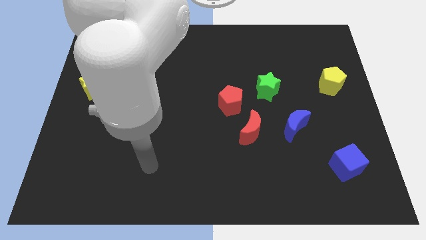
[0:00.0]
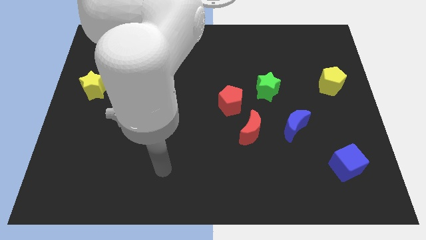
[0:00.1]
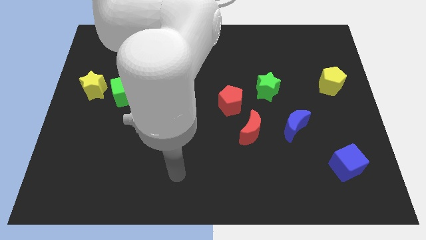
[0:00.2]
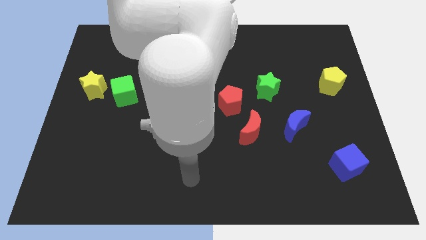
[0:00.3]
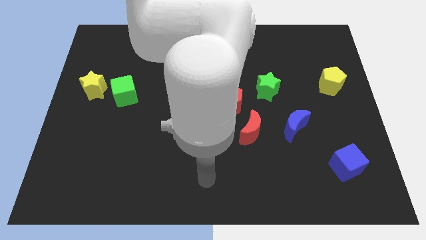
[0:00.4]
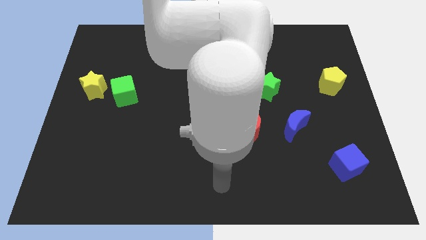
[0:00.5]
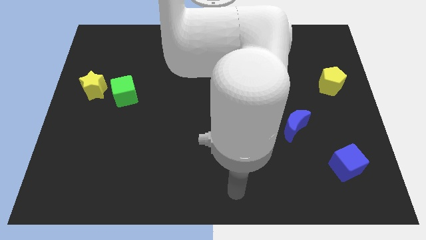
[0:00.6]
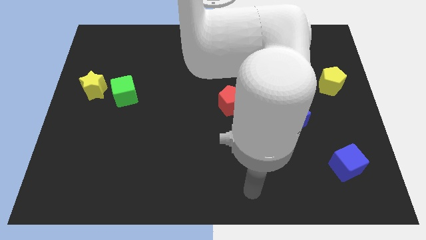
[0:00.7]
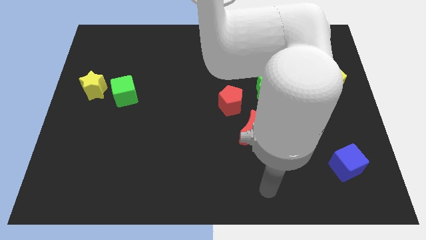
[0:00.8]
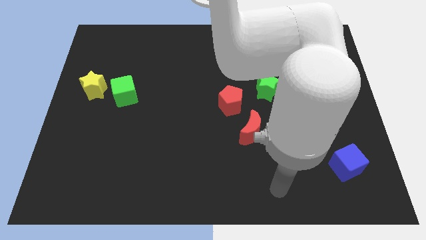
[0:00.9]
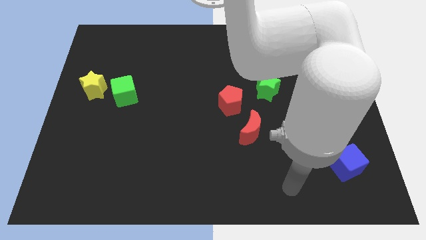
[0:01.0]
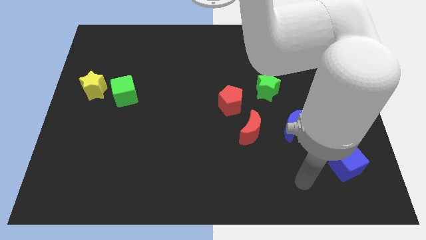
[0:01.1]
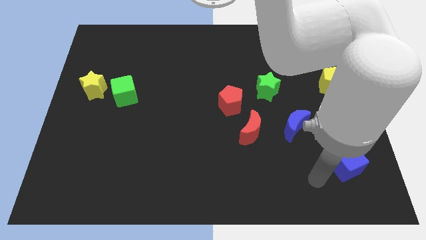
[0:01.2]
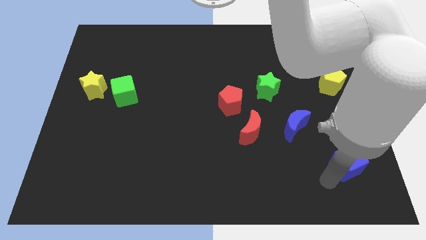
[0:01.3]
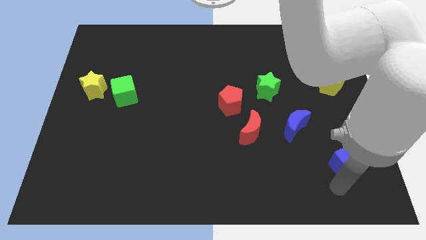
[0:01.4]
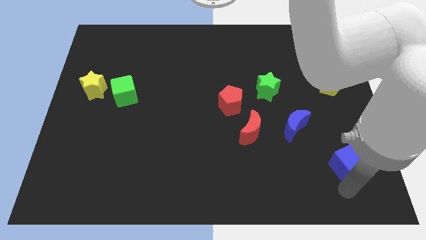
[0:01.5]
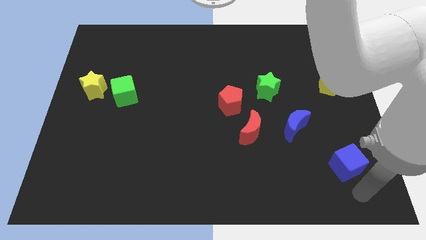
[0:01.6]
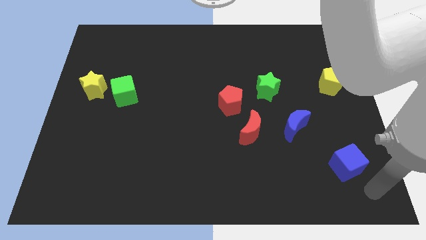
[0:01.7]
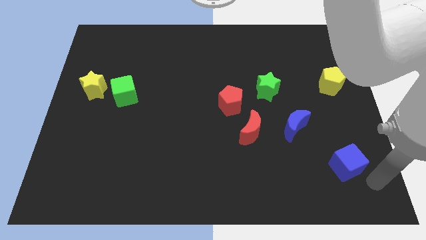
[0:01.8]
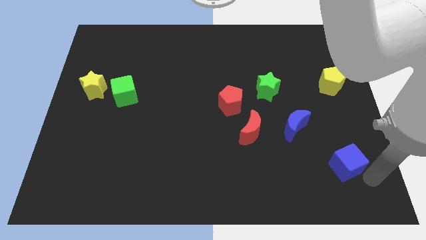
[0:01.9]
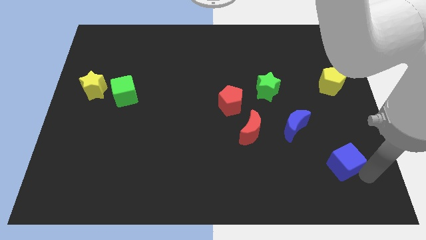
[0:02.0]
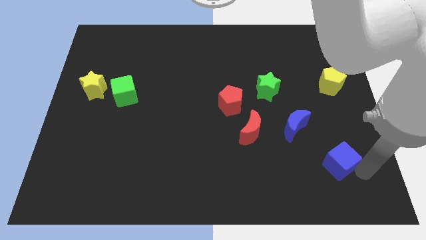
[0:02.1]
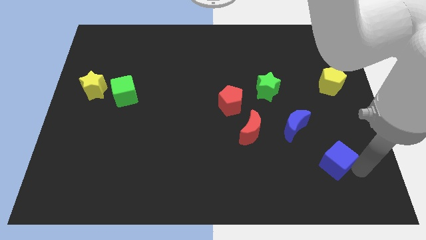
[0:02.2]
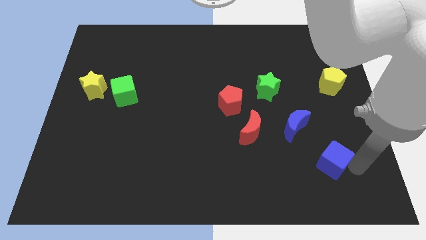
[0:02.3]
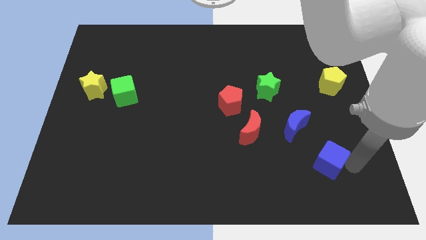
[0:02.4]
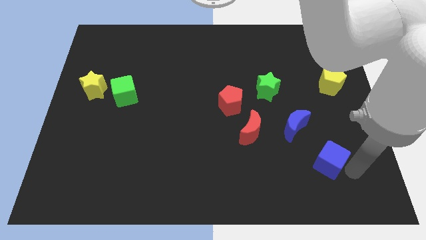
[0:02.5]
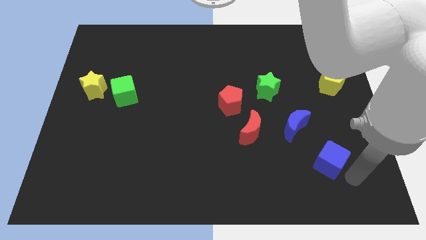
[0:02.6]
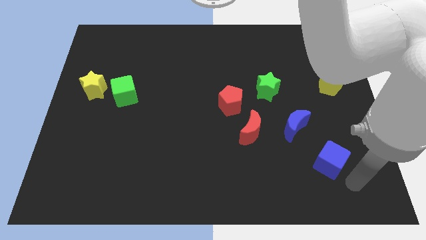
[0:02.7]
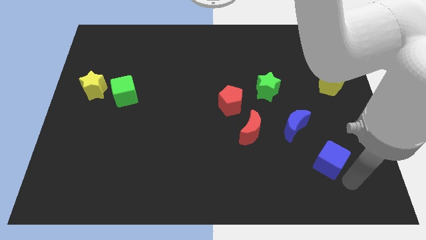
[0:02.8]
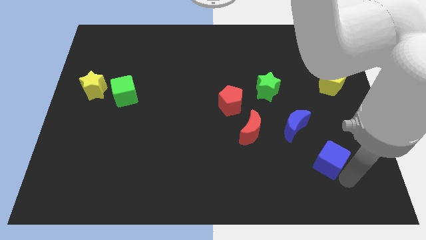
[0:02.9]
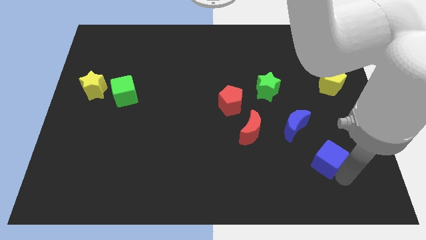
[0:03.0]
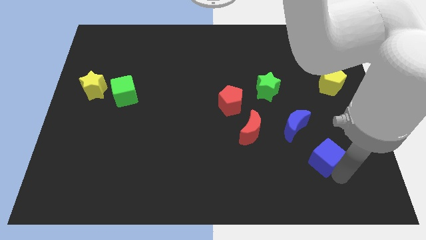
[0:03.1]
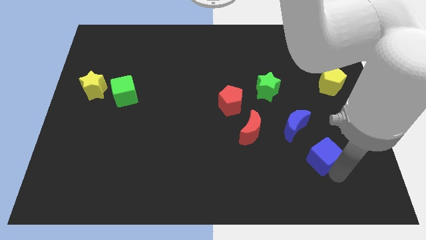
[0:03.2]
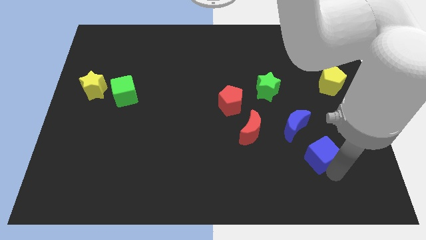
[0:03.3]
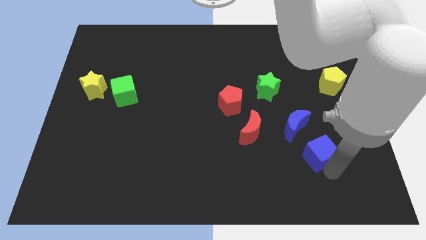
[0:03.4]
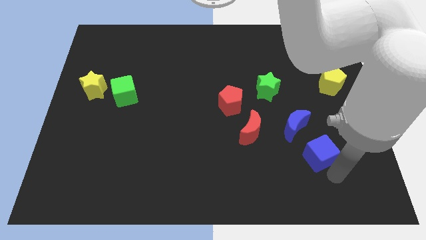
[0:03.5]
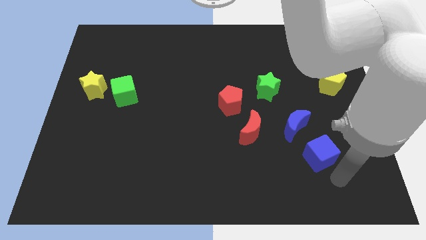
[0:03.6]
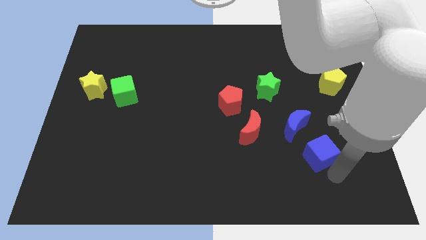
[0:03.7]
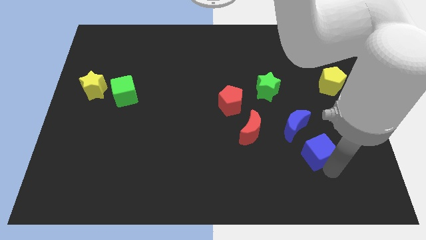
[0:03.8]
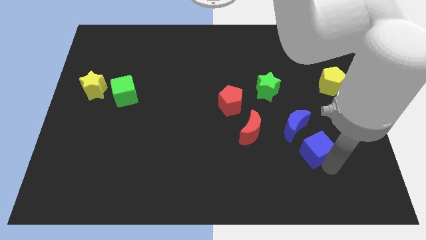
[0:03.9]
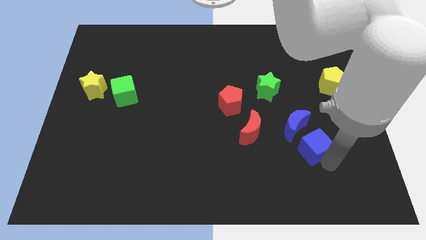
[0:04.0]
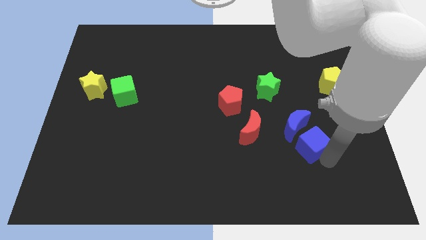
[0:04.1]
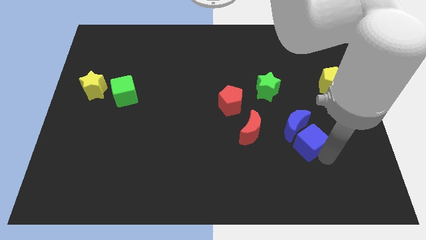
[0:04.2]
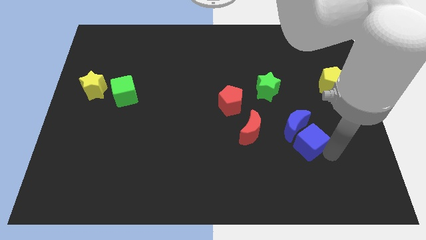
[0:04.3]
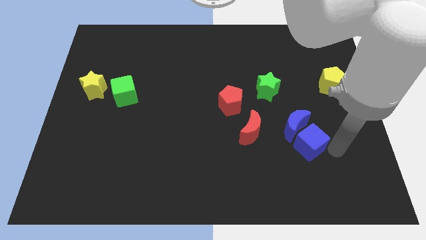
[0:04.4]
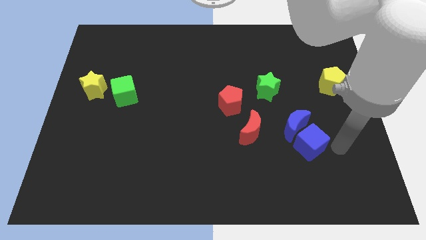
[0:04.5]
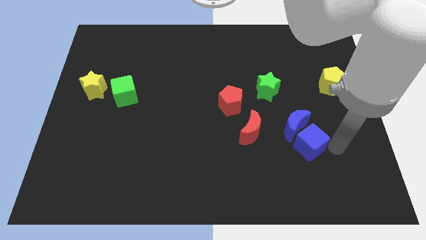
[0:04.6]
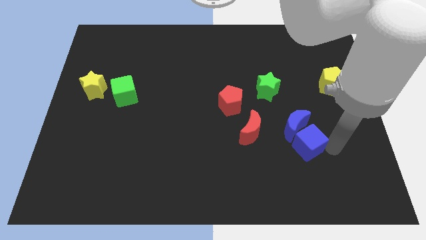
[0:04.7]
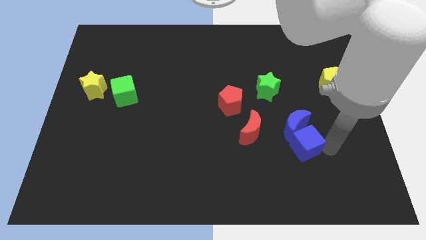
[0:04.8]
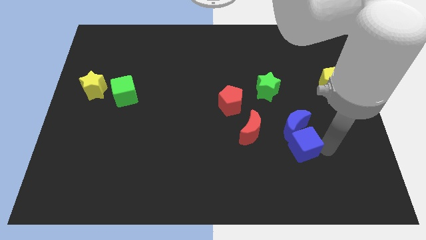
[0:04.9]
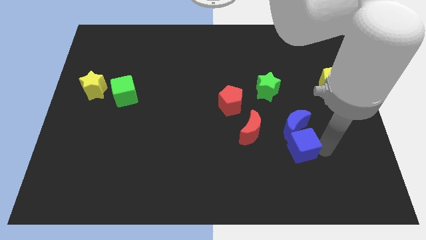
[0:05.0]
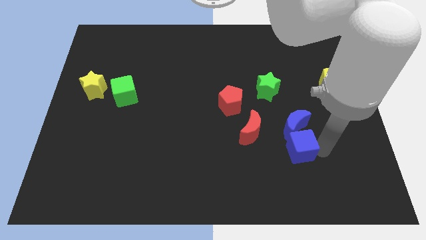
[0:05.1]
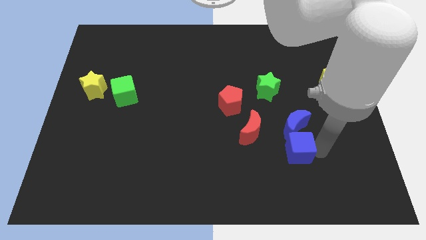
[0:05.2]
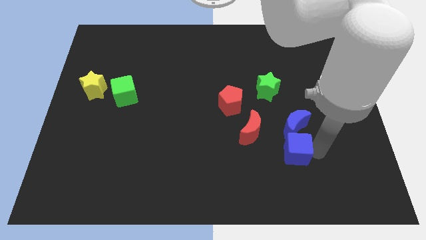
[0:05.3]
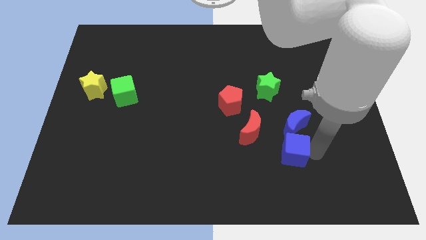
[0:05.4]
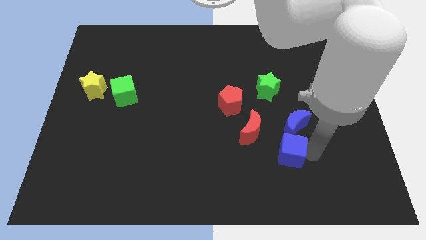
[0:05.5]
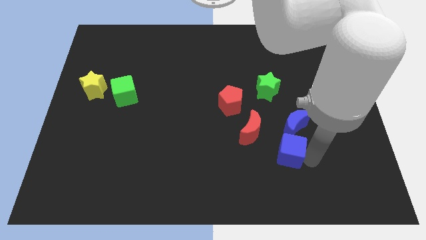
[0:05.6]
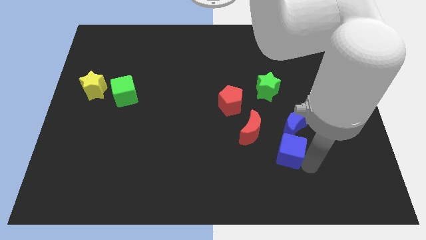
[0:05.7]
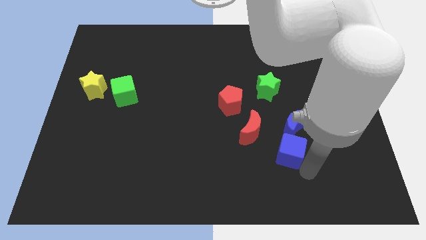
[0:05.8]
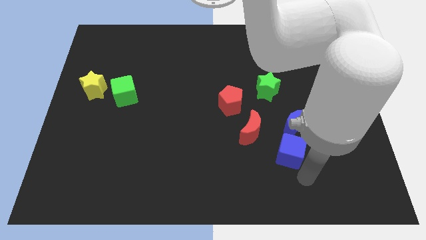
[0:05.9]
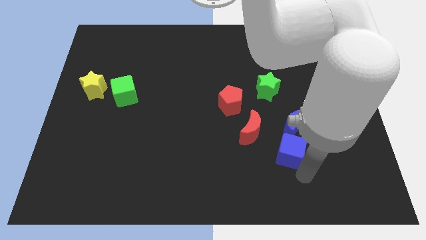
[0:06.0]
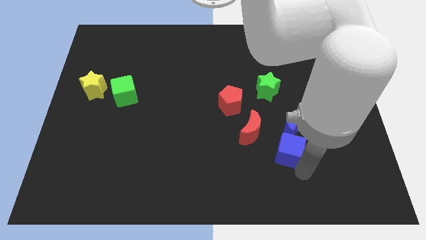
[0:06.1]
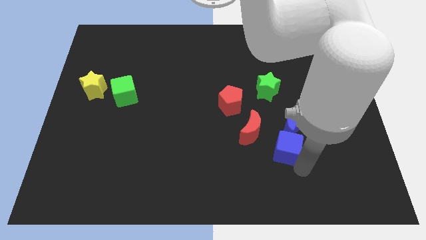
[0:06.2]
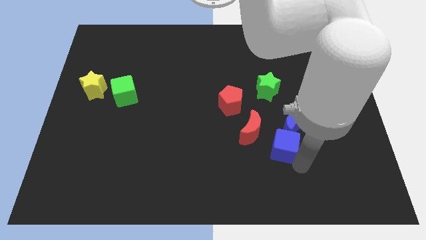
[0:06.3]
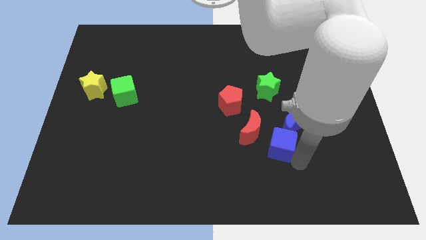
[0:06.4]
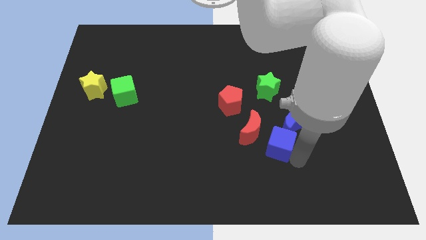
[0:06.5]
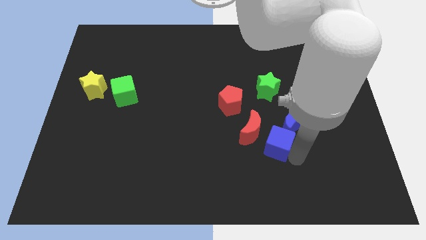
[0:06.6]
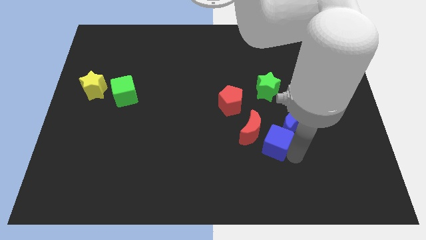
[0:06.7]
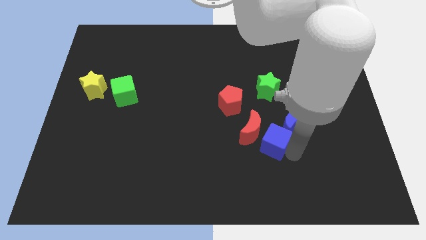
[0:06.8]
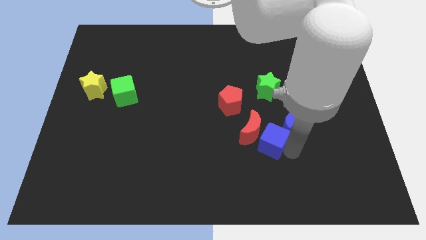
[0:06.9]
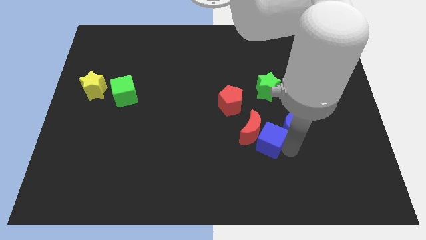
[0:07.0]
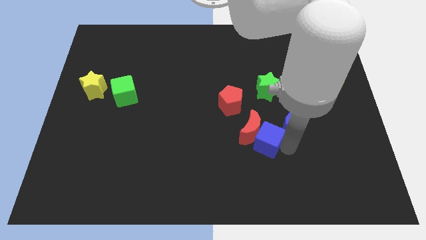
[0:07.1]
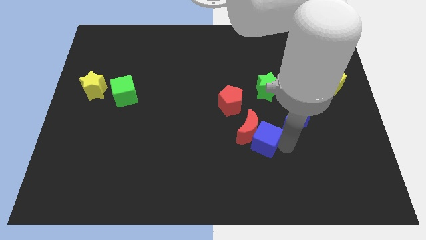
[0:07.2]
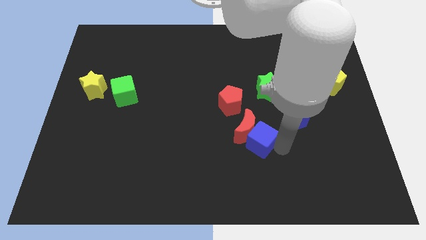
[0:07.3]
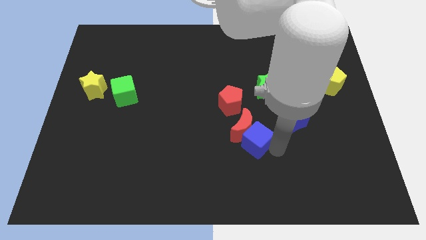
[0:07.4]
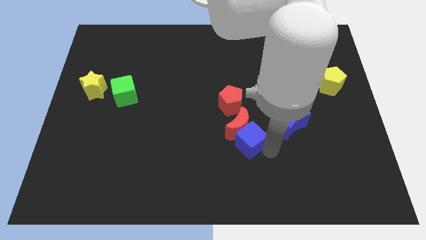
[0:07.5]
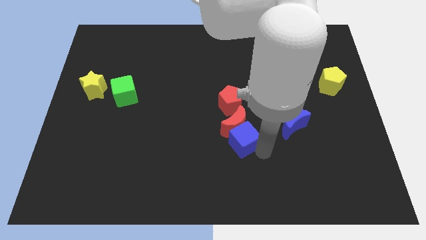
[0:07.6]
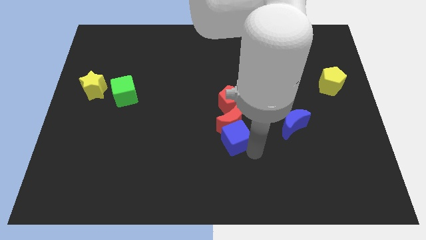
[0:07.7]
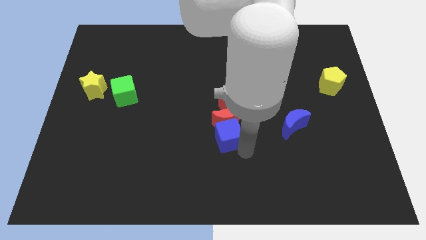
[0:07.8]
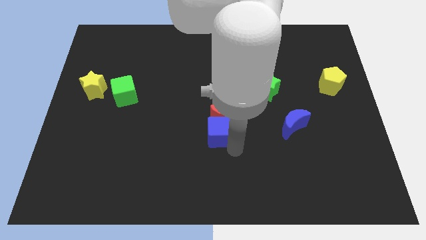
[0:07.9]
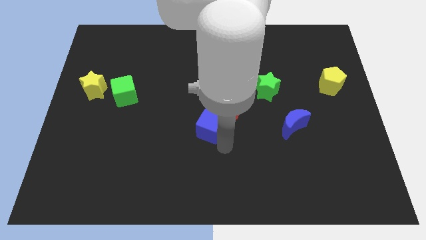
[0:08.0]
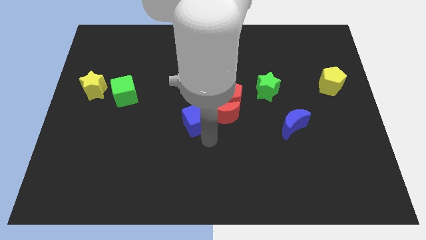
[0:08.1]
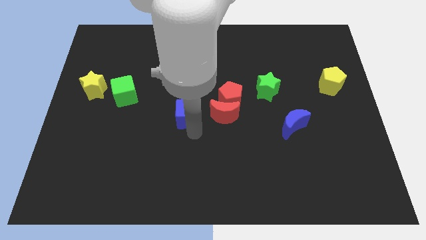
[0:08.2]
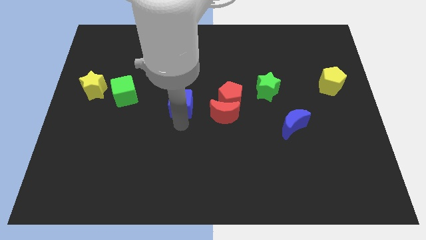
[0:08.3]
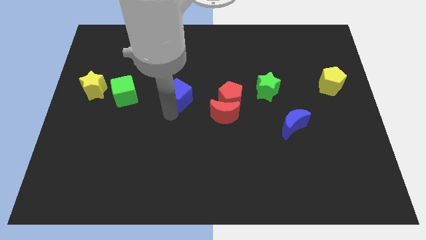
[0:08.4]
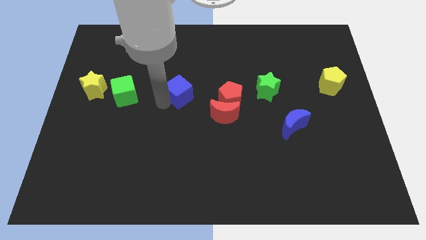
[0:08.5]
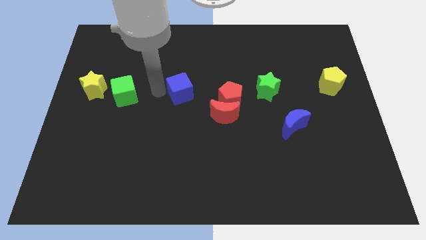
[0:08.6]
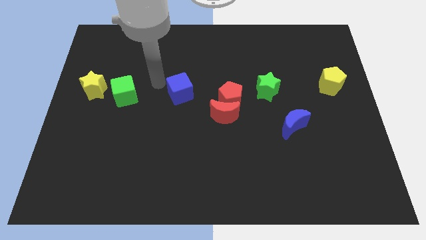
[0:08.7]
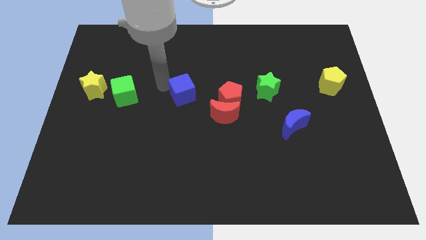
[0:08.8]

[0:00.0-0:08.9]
slide the blue cube diagonally up and to the left
